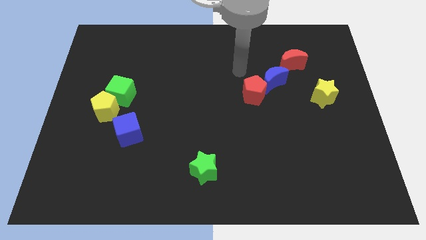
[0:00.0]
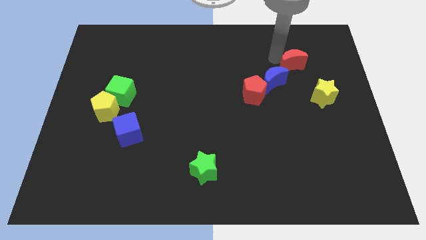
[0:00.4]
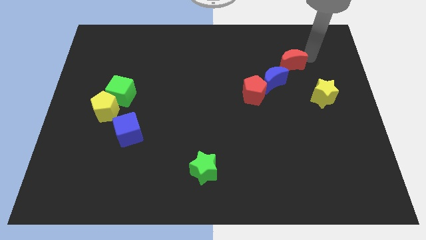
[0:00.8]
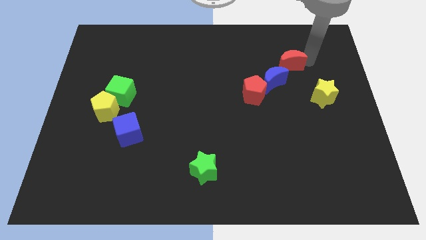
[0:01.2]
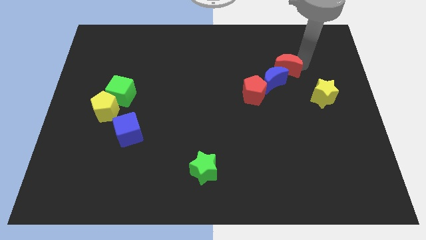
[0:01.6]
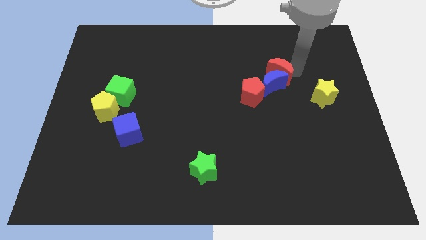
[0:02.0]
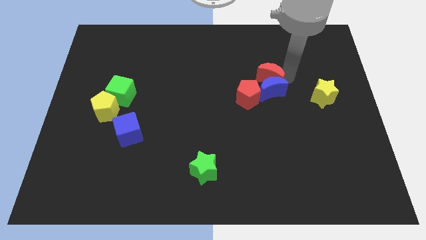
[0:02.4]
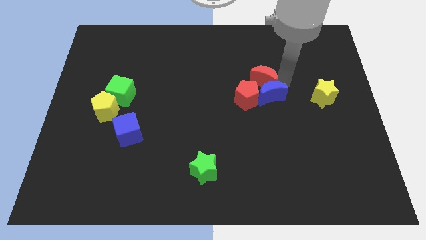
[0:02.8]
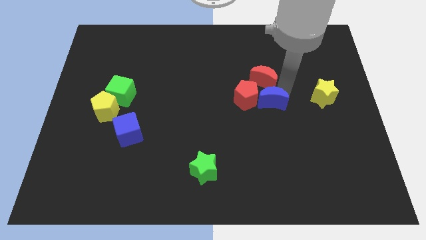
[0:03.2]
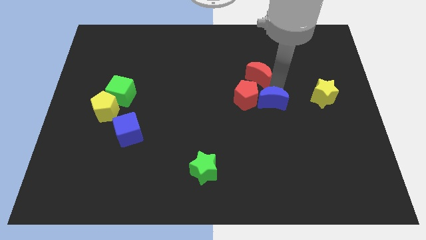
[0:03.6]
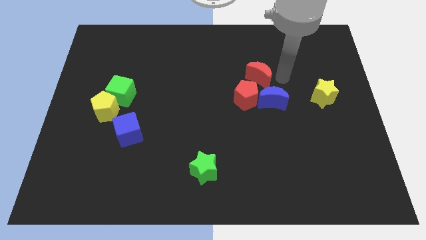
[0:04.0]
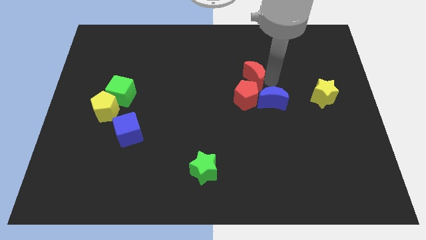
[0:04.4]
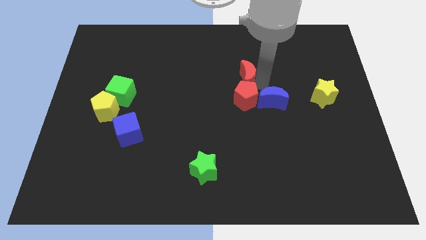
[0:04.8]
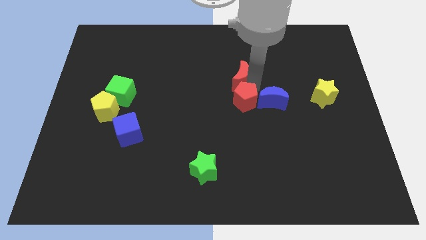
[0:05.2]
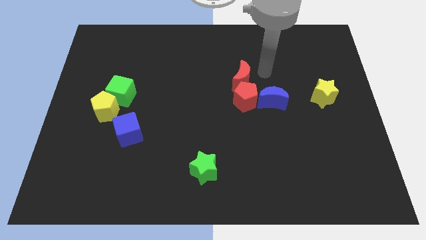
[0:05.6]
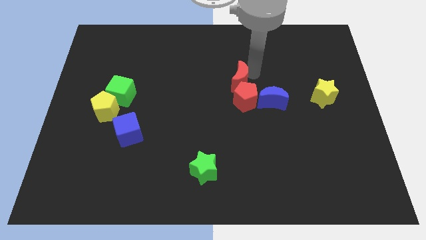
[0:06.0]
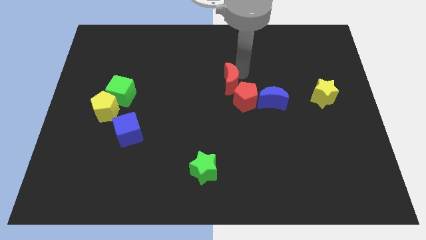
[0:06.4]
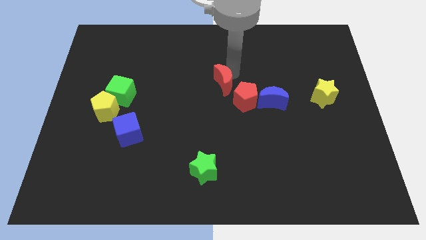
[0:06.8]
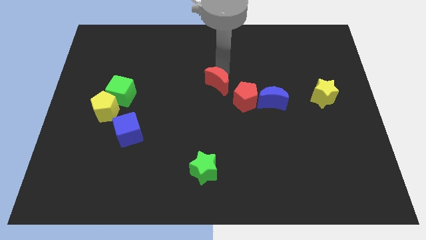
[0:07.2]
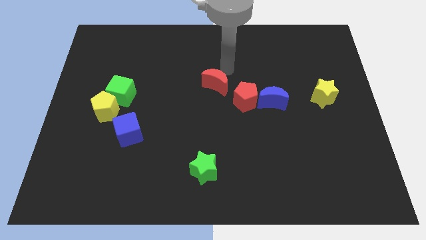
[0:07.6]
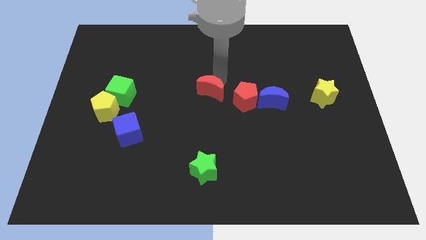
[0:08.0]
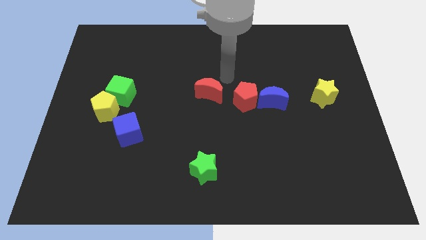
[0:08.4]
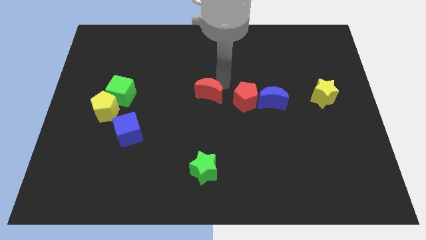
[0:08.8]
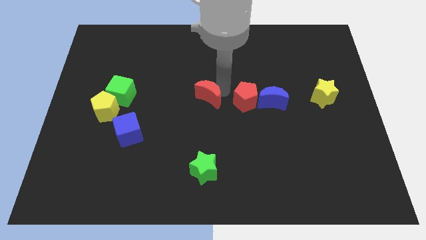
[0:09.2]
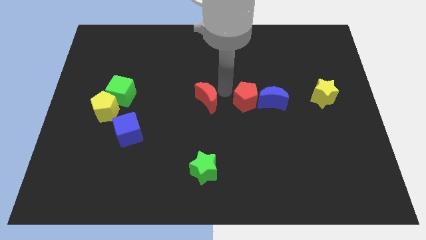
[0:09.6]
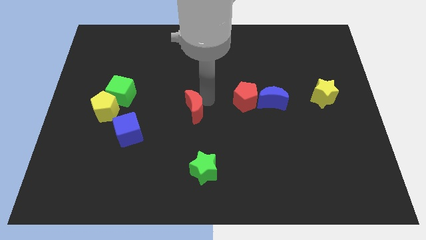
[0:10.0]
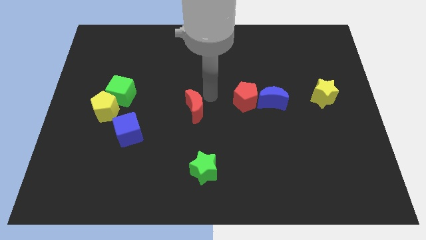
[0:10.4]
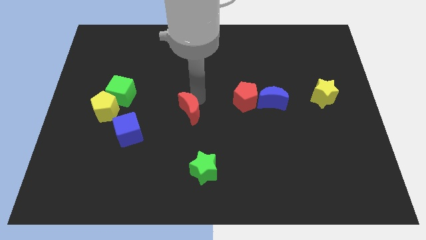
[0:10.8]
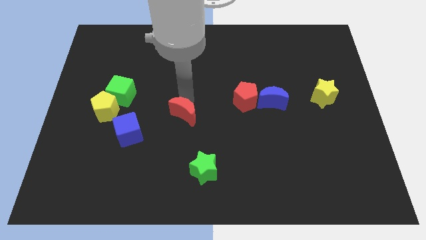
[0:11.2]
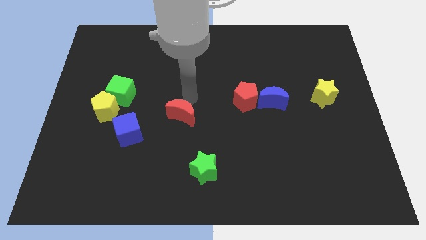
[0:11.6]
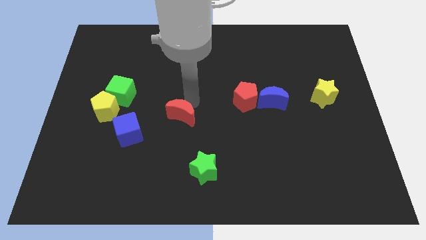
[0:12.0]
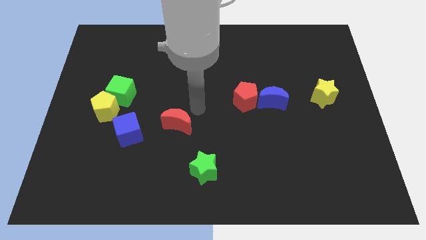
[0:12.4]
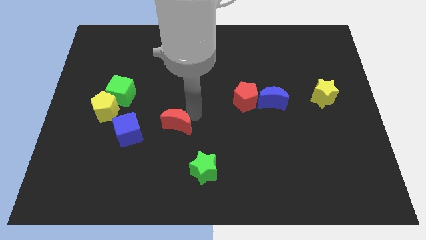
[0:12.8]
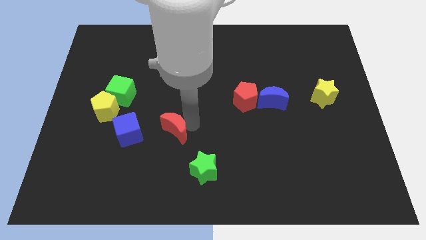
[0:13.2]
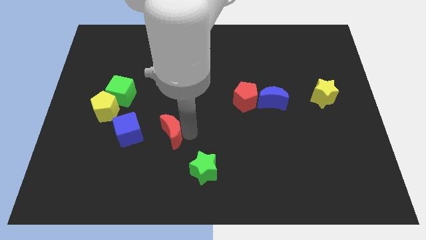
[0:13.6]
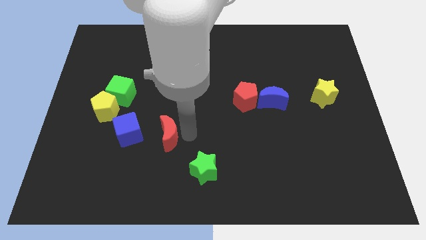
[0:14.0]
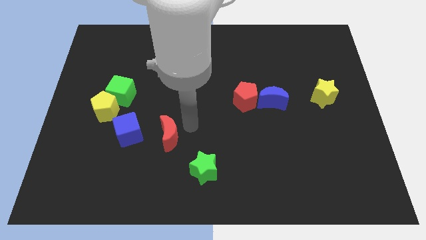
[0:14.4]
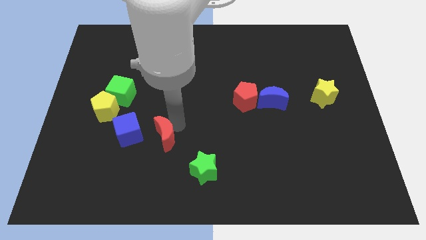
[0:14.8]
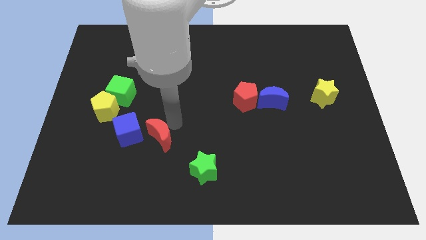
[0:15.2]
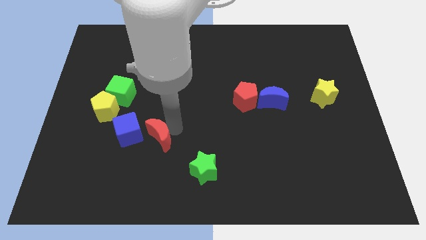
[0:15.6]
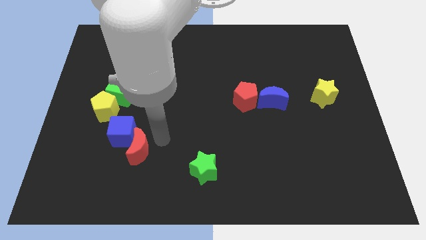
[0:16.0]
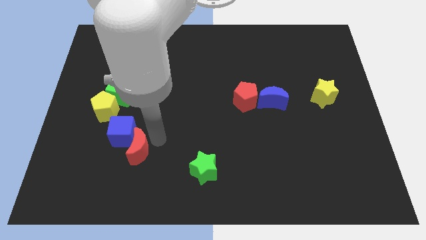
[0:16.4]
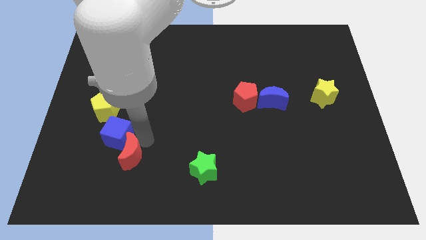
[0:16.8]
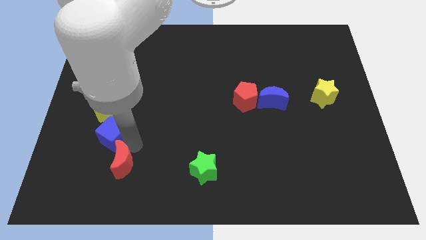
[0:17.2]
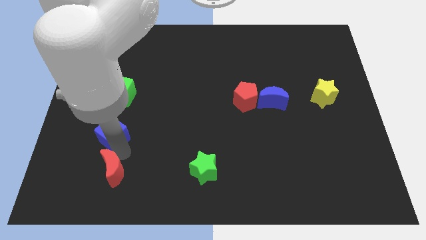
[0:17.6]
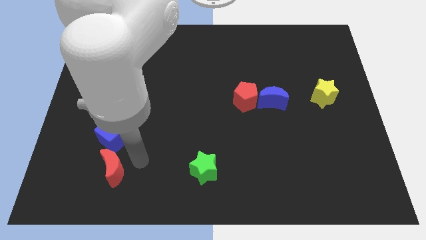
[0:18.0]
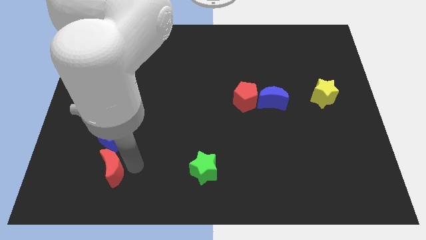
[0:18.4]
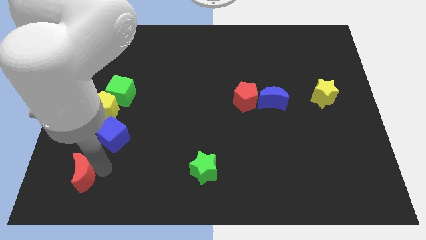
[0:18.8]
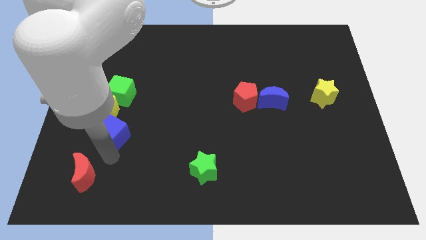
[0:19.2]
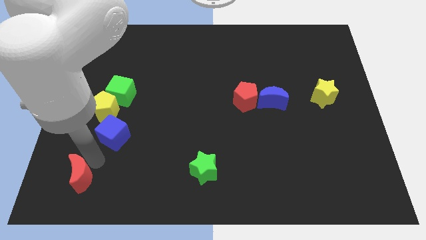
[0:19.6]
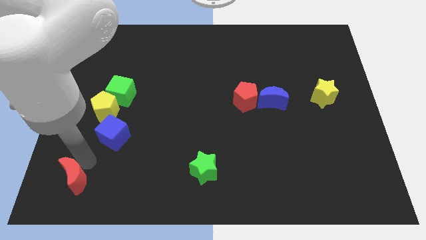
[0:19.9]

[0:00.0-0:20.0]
push the red moon to the lower left corner
